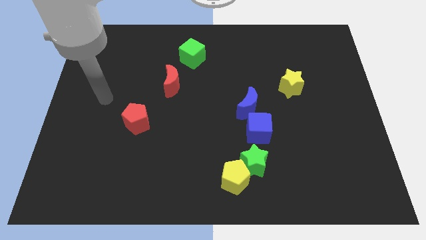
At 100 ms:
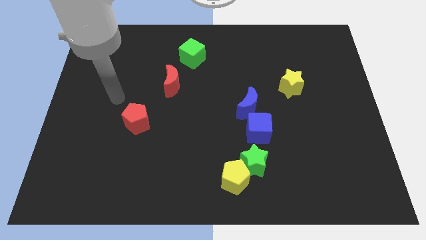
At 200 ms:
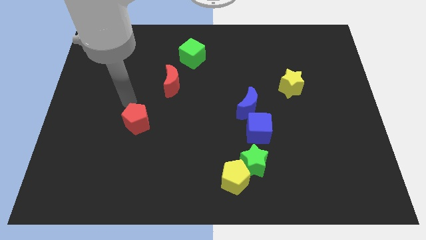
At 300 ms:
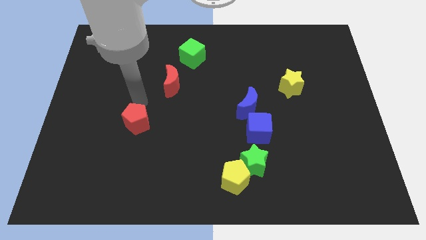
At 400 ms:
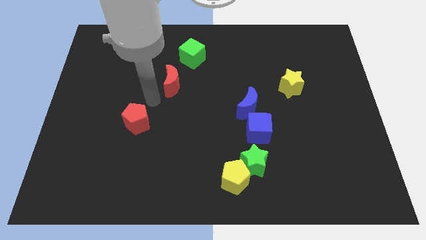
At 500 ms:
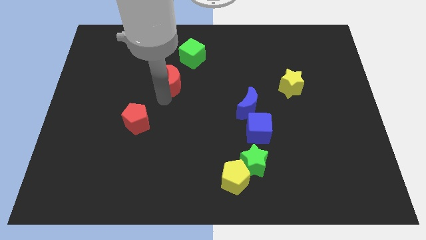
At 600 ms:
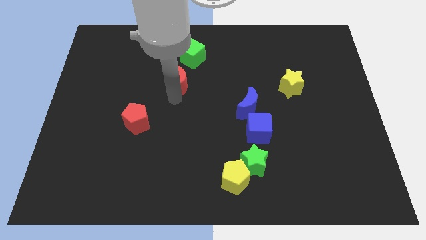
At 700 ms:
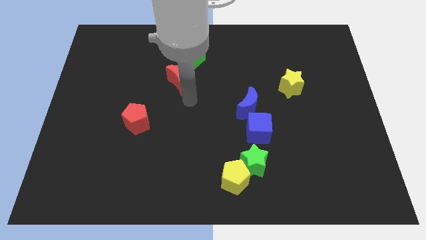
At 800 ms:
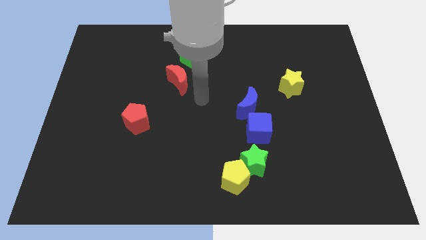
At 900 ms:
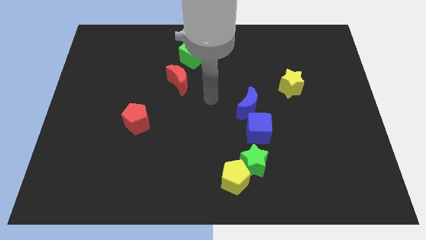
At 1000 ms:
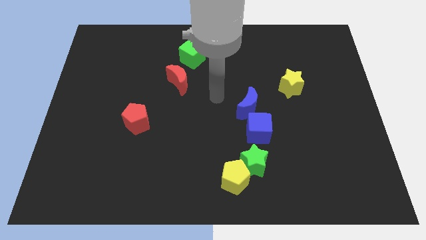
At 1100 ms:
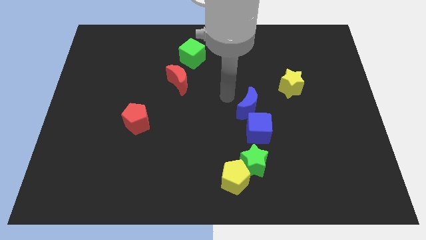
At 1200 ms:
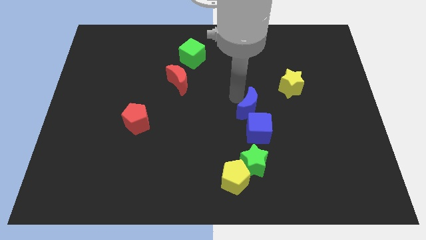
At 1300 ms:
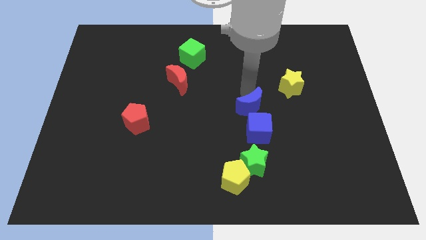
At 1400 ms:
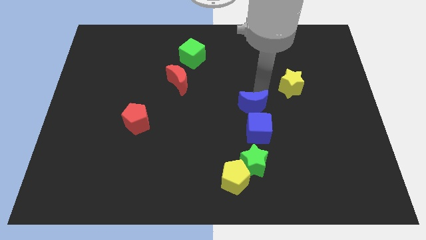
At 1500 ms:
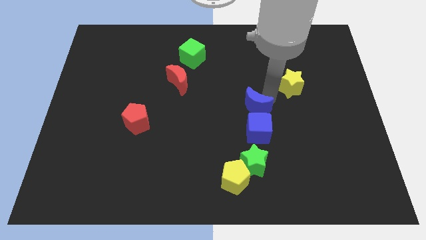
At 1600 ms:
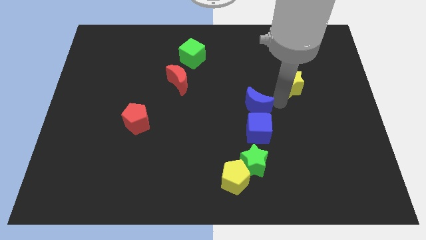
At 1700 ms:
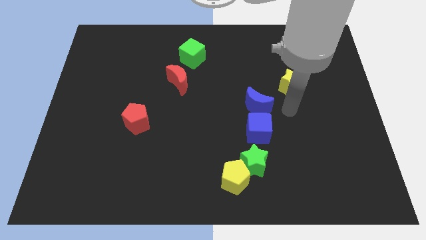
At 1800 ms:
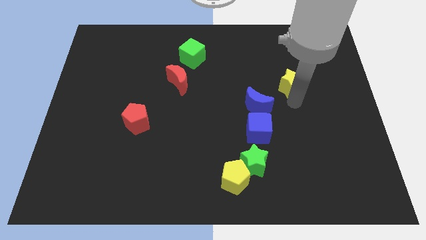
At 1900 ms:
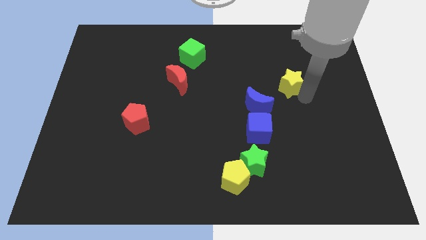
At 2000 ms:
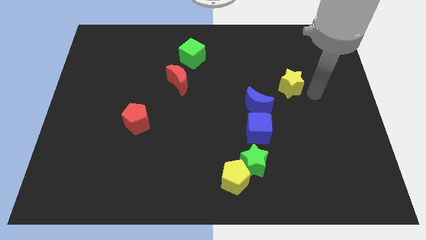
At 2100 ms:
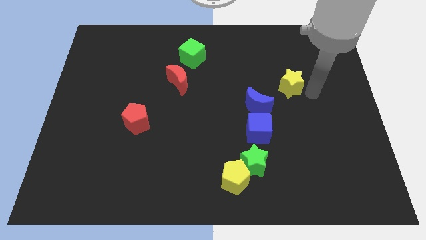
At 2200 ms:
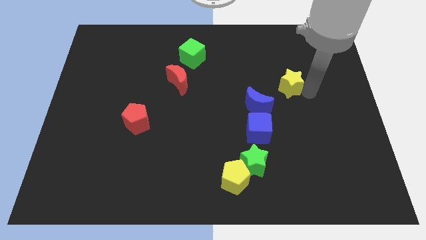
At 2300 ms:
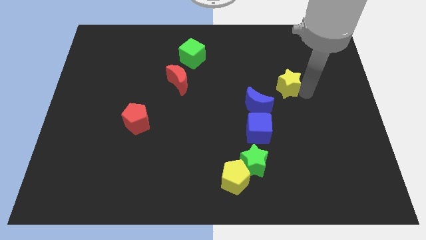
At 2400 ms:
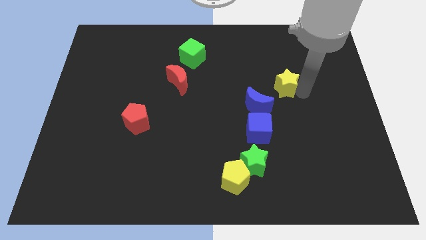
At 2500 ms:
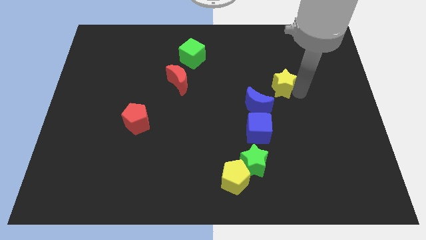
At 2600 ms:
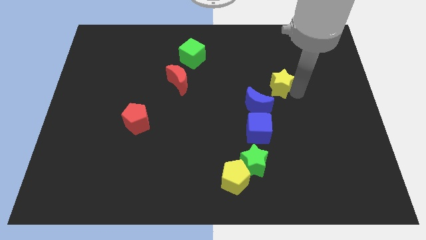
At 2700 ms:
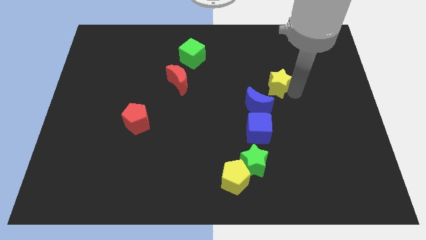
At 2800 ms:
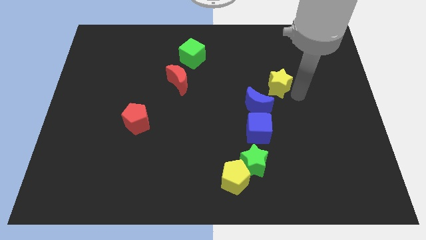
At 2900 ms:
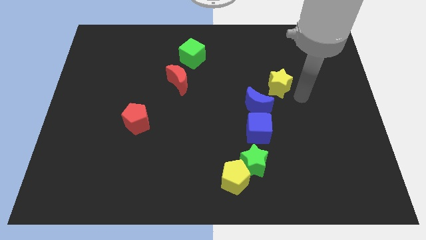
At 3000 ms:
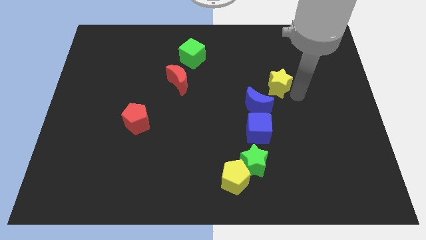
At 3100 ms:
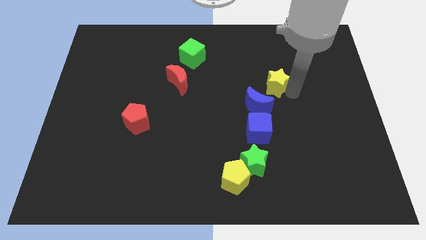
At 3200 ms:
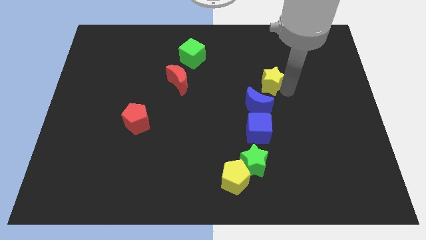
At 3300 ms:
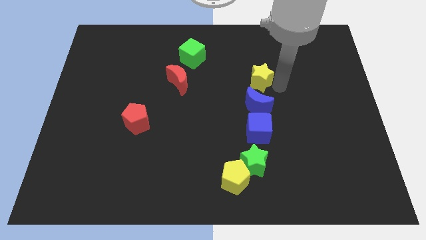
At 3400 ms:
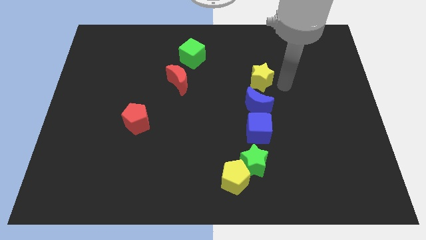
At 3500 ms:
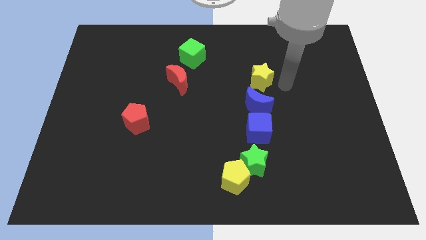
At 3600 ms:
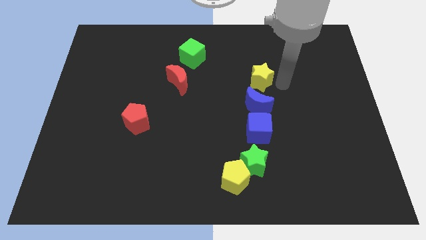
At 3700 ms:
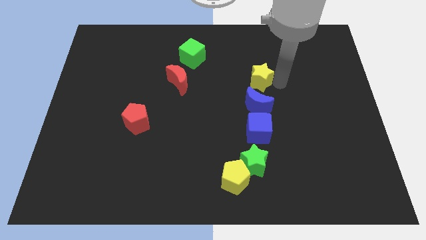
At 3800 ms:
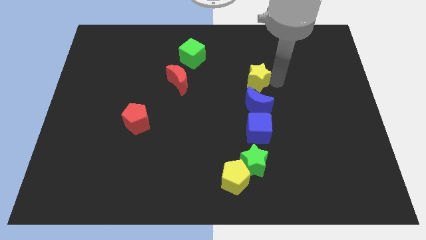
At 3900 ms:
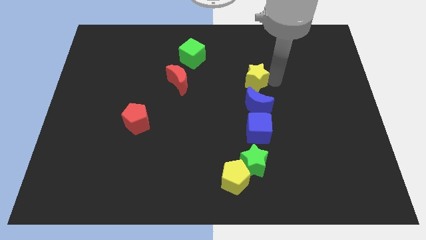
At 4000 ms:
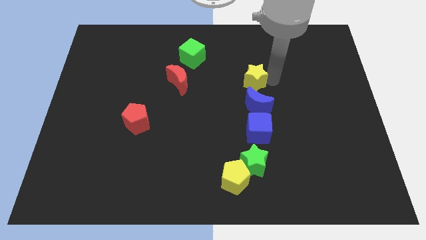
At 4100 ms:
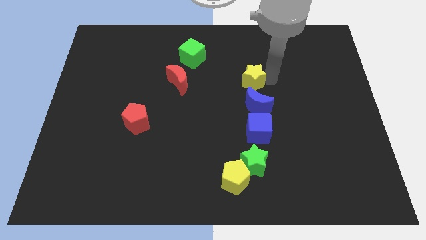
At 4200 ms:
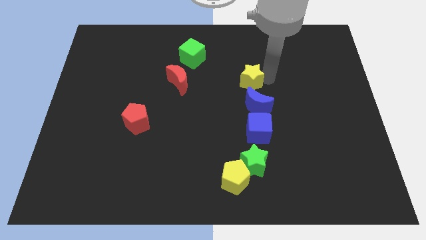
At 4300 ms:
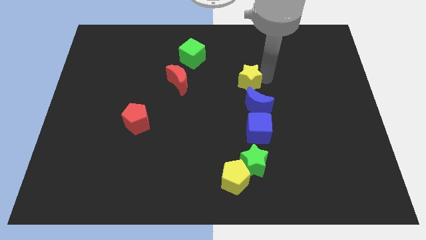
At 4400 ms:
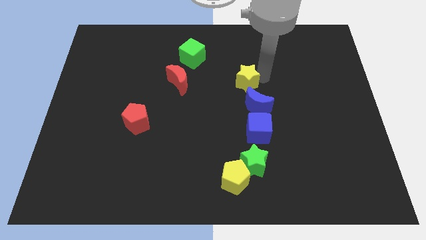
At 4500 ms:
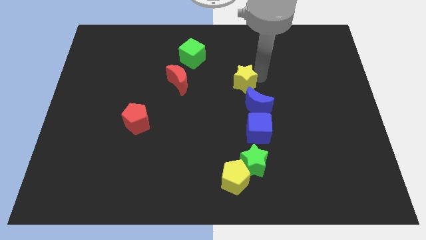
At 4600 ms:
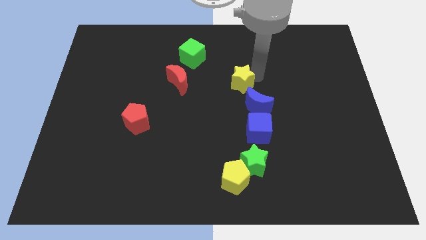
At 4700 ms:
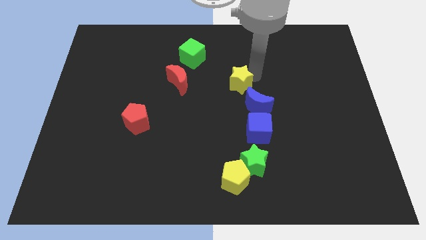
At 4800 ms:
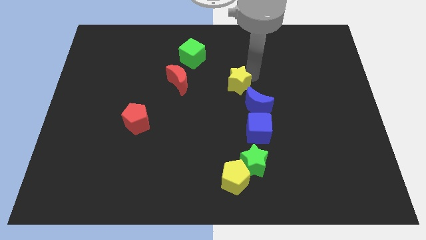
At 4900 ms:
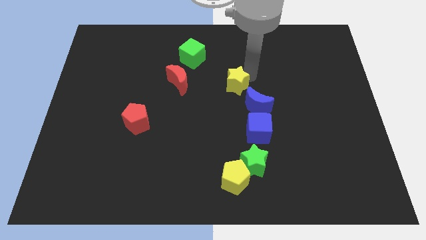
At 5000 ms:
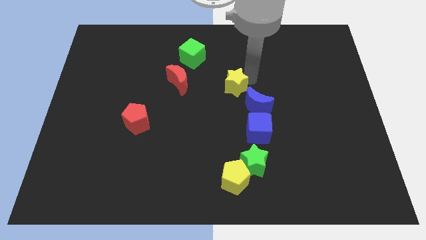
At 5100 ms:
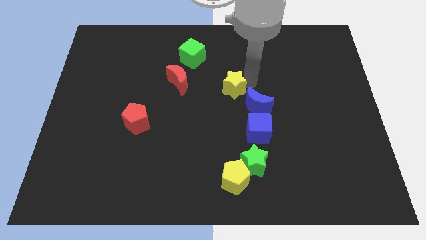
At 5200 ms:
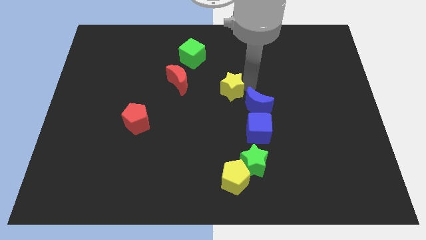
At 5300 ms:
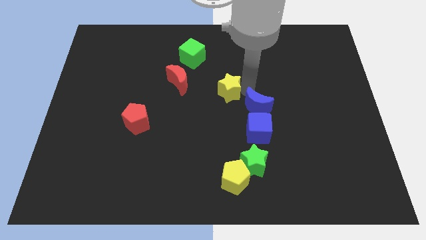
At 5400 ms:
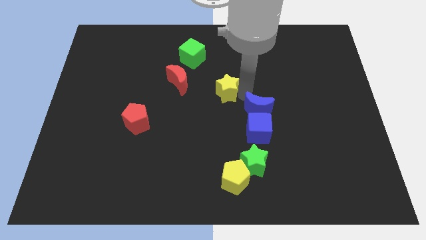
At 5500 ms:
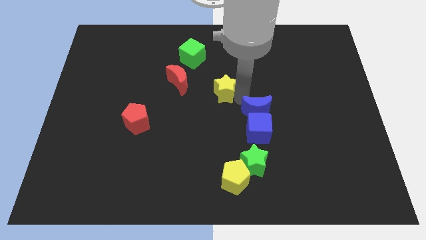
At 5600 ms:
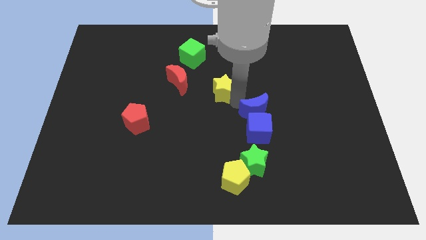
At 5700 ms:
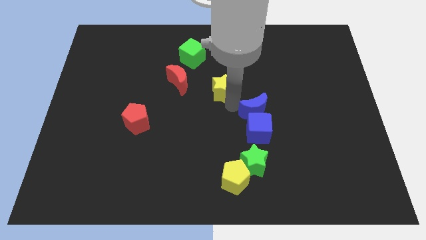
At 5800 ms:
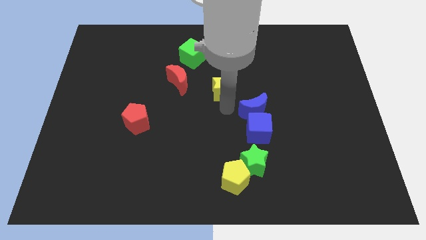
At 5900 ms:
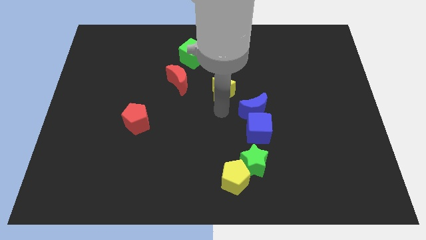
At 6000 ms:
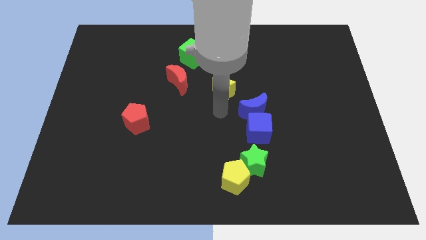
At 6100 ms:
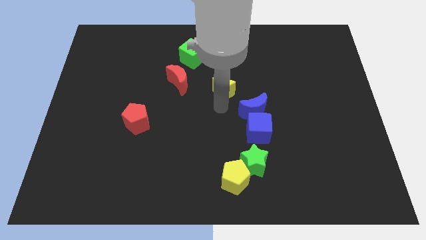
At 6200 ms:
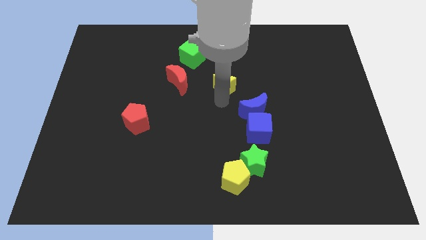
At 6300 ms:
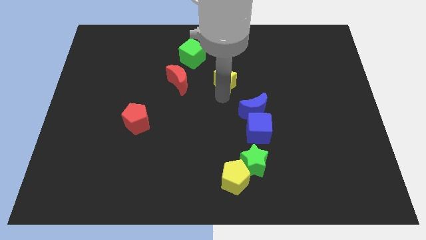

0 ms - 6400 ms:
move the yellow star to the bottom right of the green cube

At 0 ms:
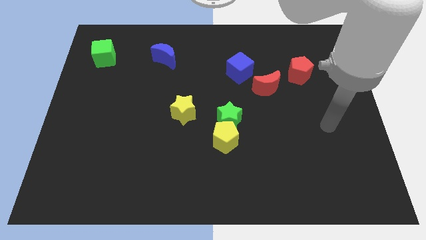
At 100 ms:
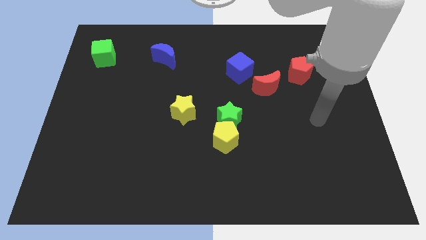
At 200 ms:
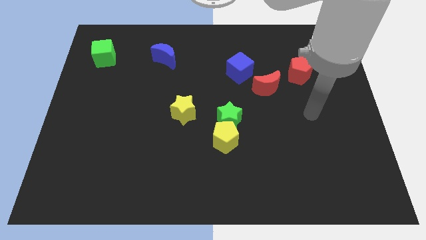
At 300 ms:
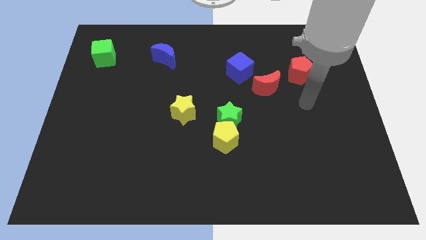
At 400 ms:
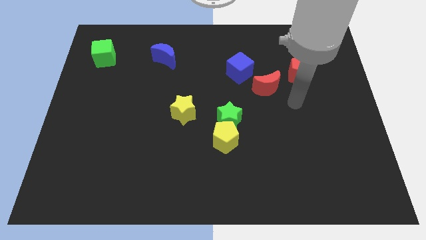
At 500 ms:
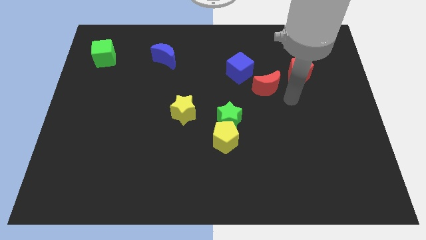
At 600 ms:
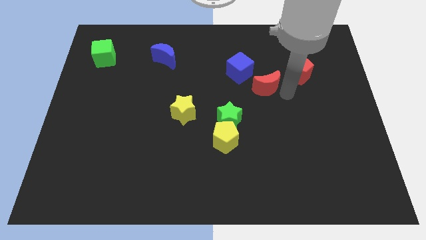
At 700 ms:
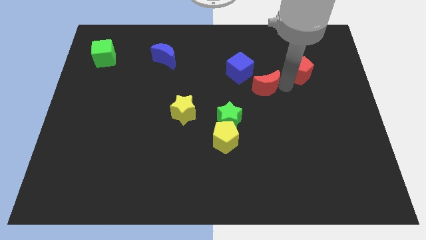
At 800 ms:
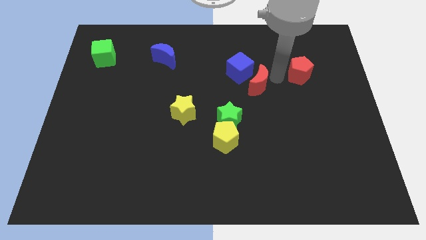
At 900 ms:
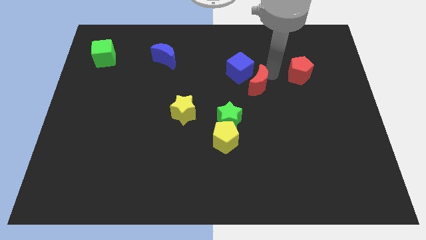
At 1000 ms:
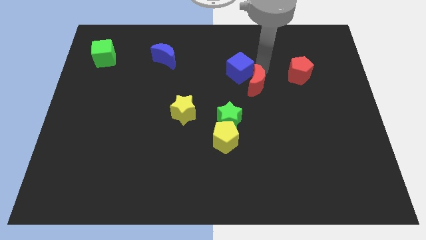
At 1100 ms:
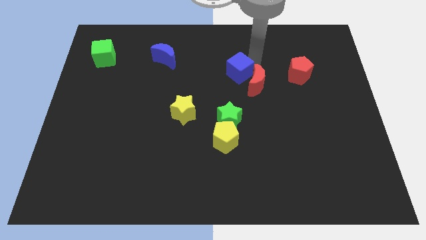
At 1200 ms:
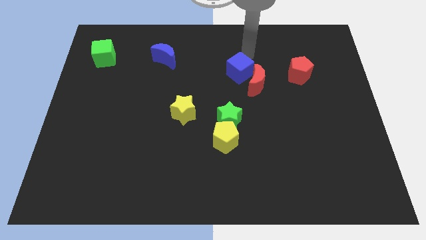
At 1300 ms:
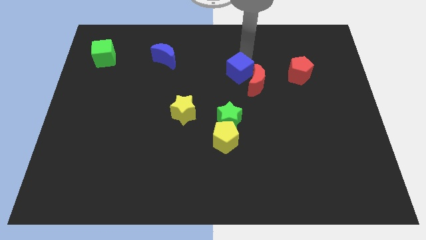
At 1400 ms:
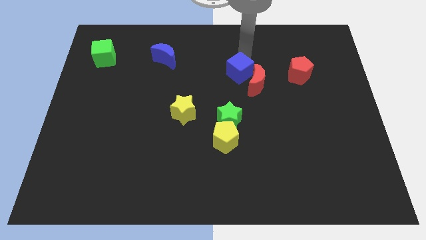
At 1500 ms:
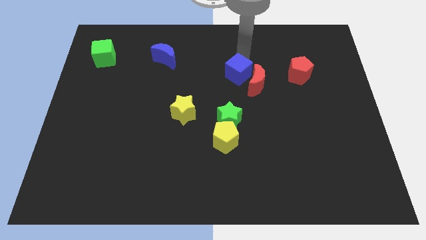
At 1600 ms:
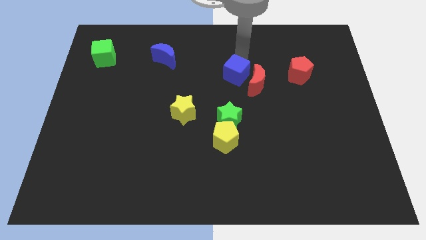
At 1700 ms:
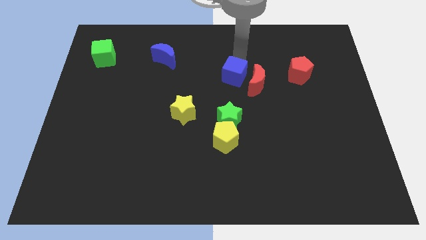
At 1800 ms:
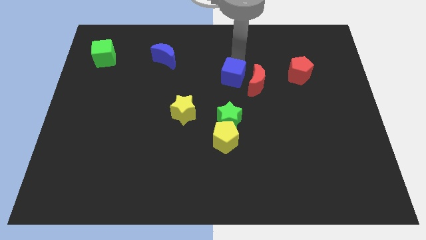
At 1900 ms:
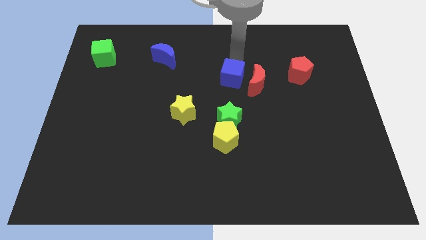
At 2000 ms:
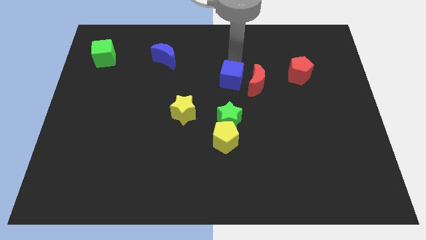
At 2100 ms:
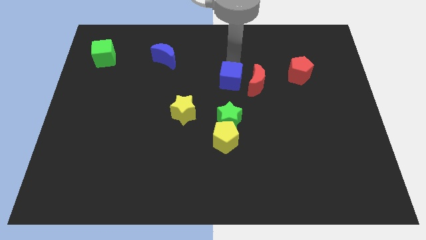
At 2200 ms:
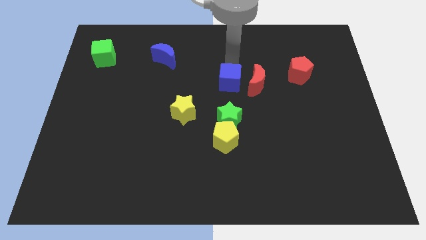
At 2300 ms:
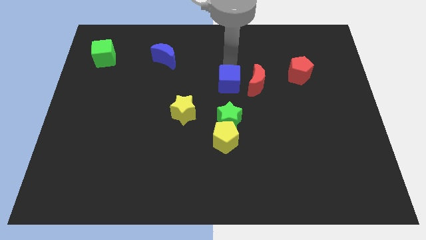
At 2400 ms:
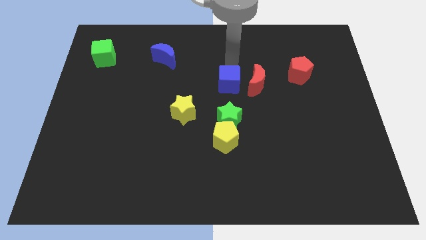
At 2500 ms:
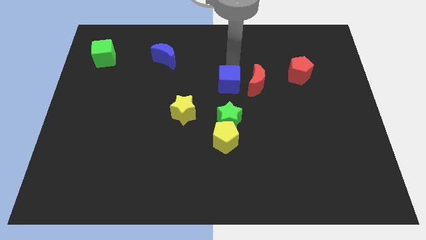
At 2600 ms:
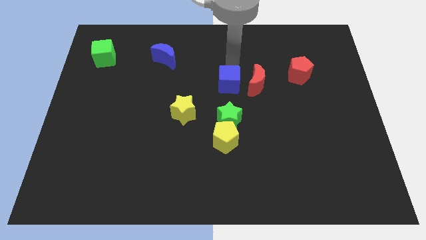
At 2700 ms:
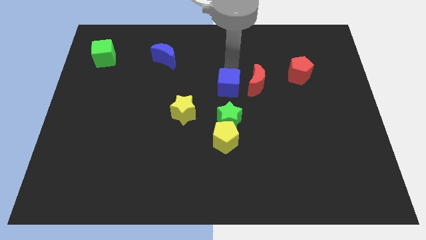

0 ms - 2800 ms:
slide the blue cube to the top side of the yellow pentagon
